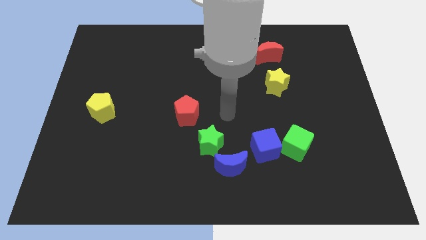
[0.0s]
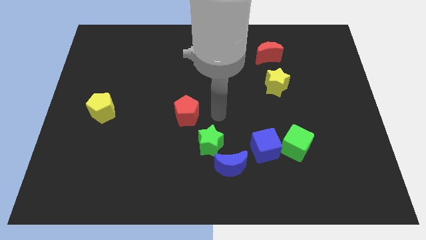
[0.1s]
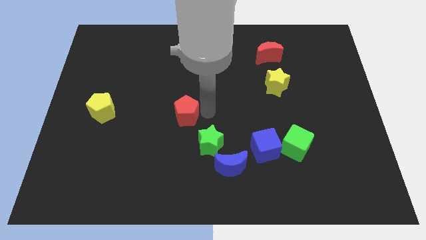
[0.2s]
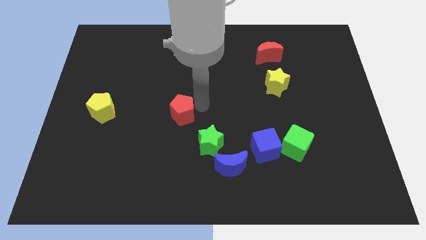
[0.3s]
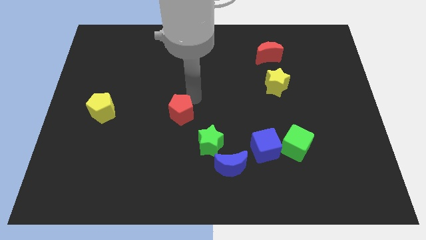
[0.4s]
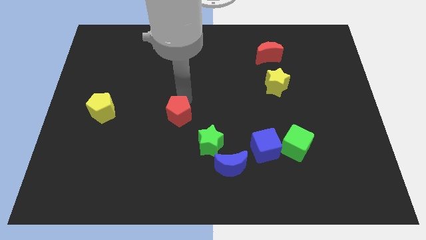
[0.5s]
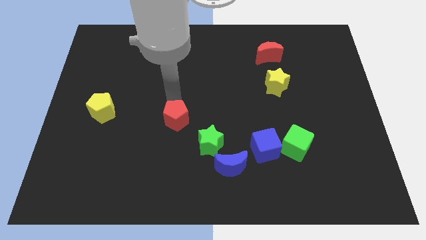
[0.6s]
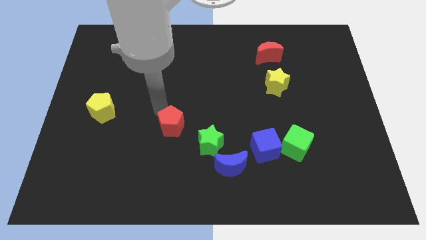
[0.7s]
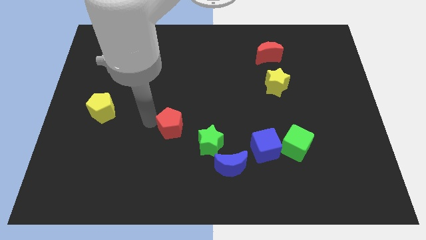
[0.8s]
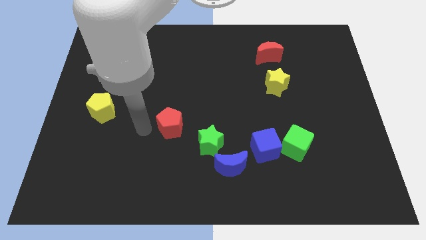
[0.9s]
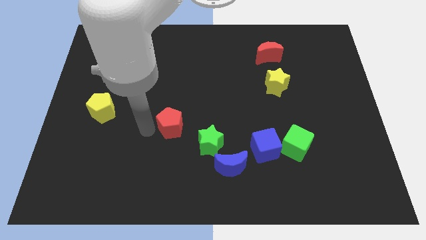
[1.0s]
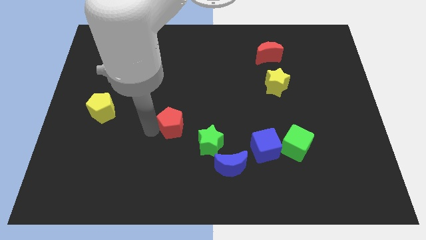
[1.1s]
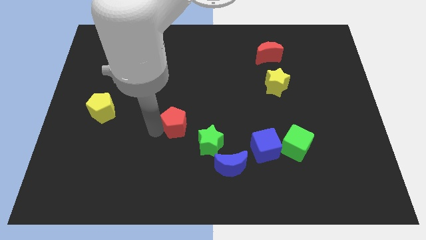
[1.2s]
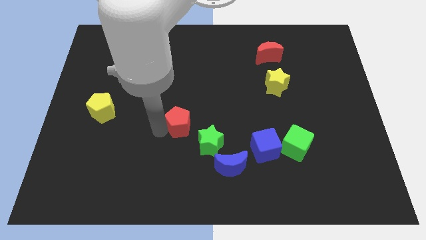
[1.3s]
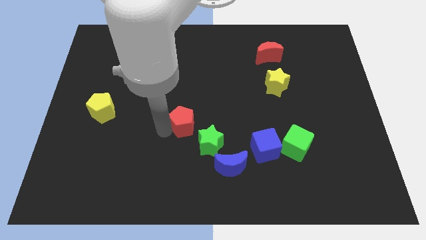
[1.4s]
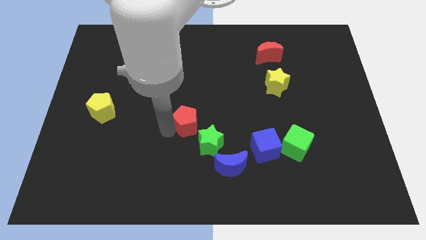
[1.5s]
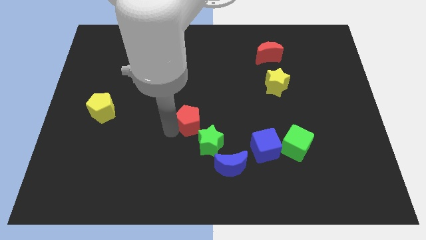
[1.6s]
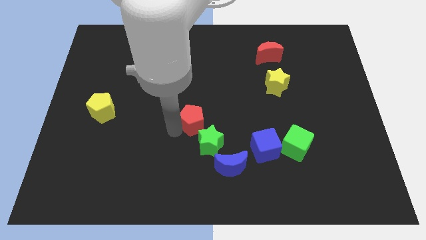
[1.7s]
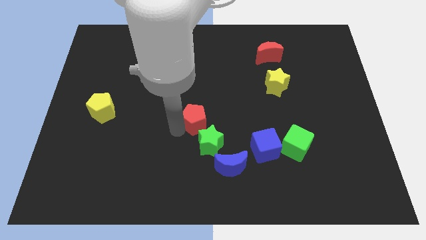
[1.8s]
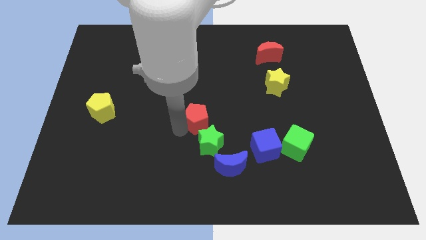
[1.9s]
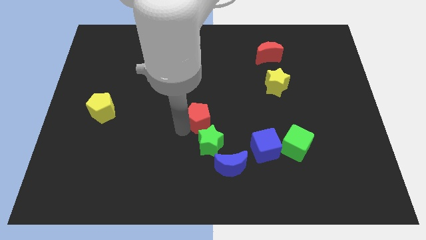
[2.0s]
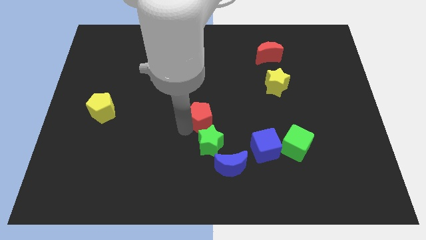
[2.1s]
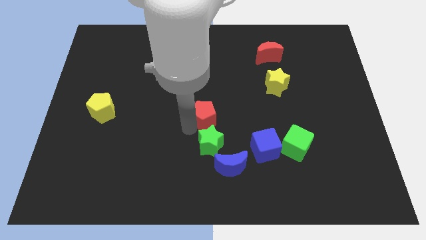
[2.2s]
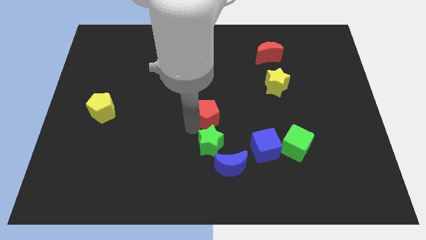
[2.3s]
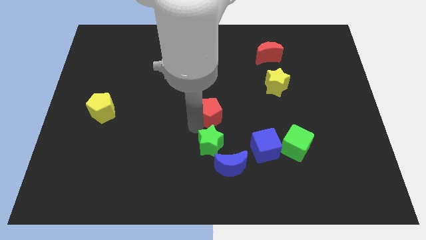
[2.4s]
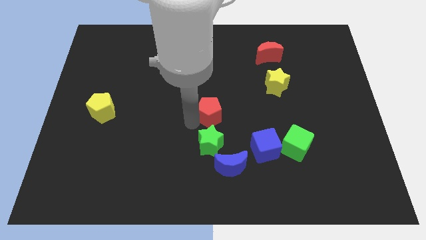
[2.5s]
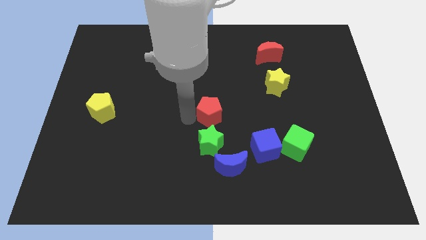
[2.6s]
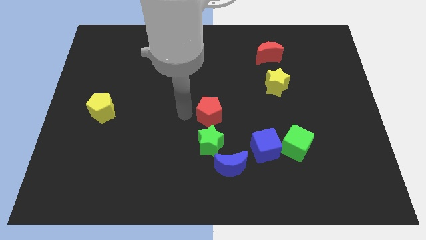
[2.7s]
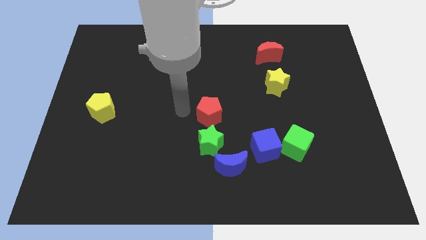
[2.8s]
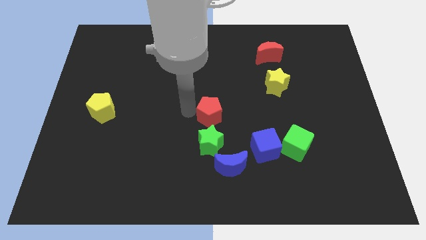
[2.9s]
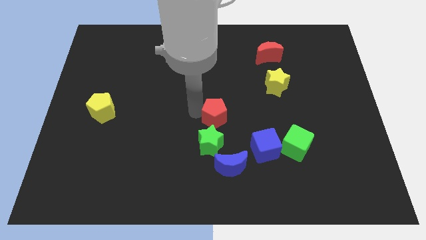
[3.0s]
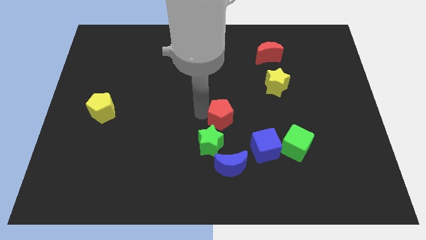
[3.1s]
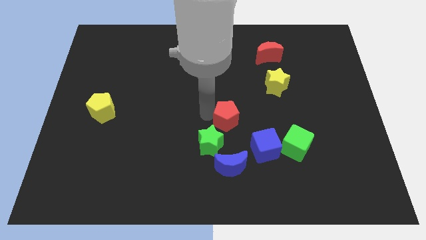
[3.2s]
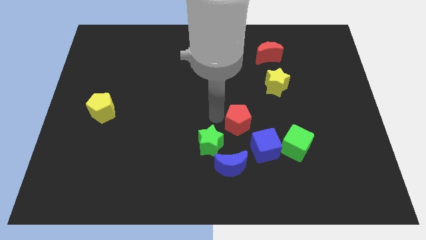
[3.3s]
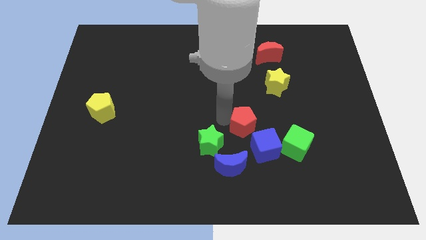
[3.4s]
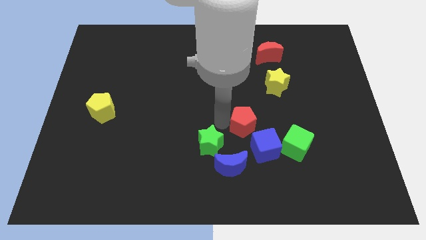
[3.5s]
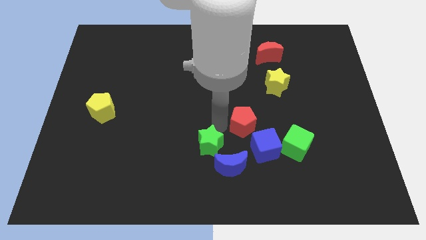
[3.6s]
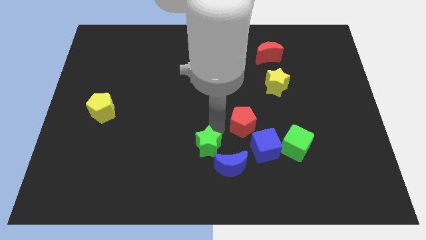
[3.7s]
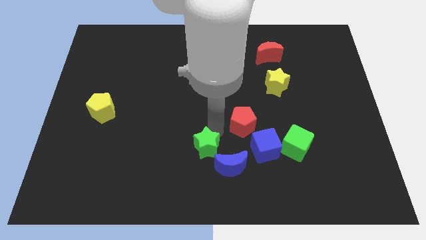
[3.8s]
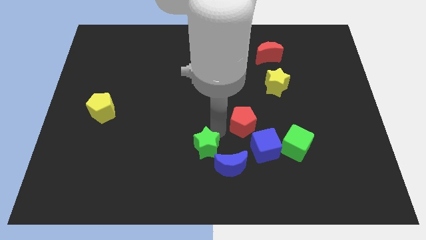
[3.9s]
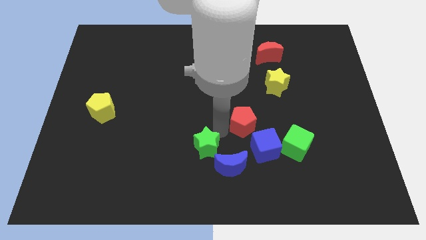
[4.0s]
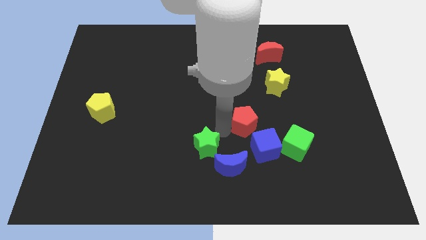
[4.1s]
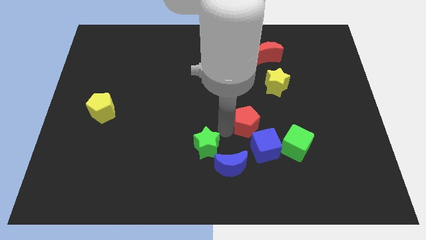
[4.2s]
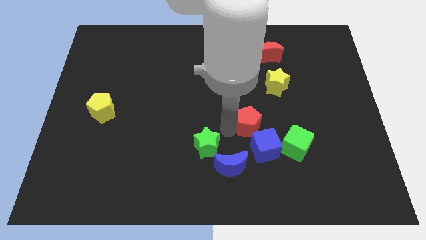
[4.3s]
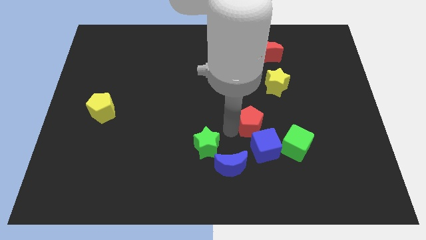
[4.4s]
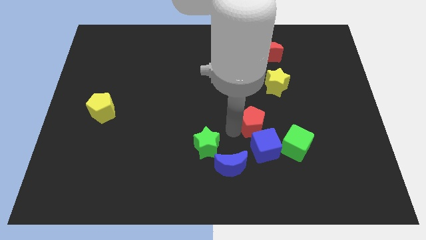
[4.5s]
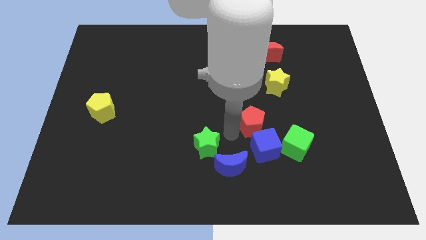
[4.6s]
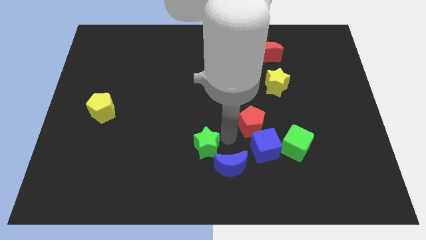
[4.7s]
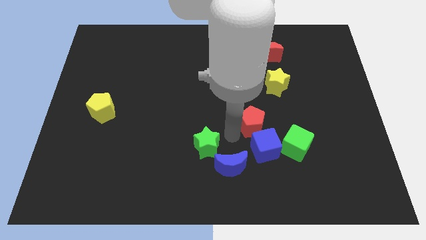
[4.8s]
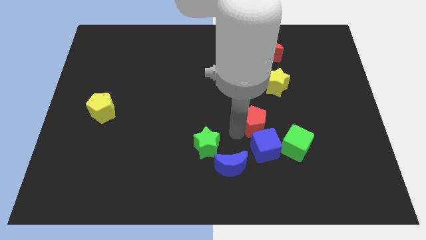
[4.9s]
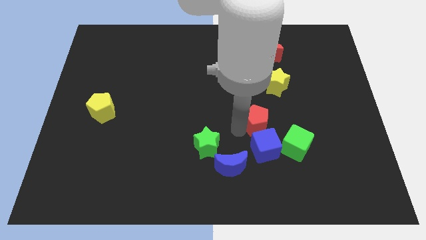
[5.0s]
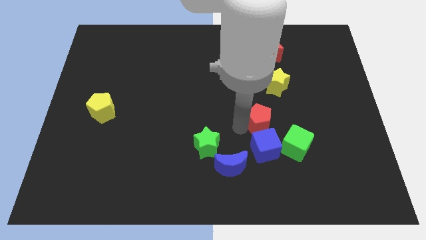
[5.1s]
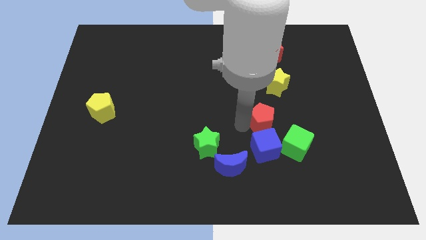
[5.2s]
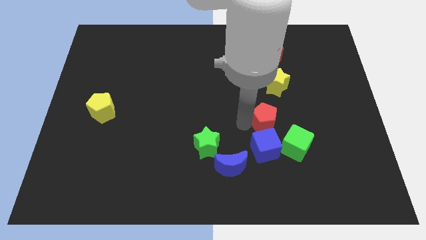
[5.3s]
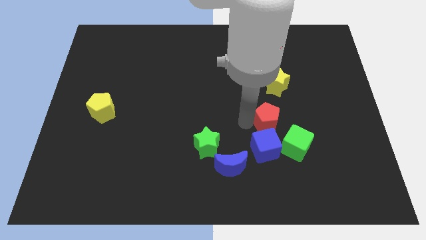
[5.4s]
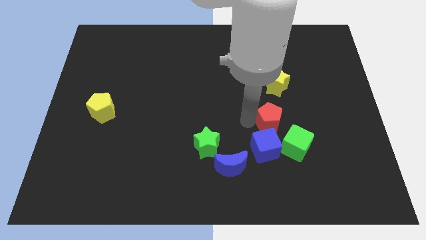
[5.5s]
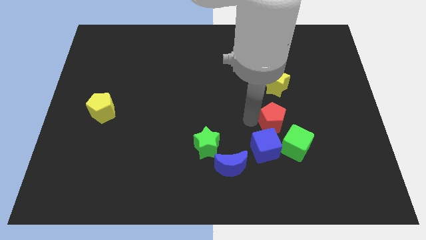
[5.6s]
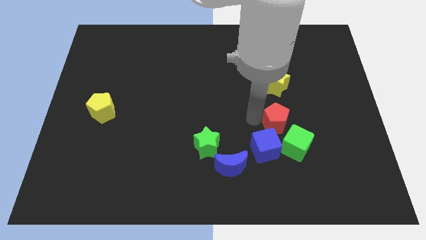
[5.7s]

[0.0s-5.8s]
move the red pentagon right

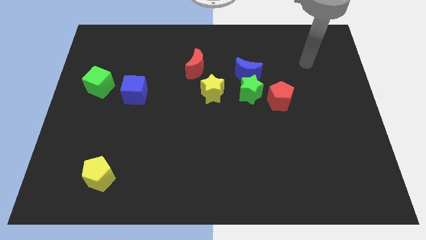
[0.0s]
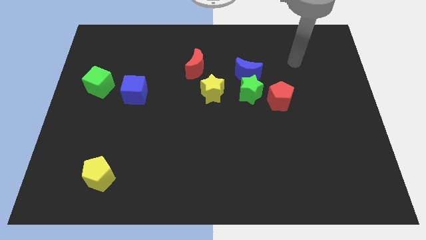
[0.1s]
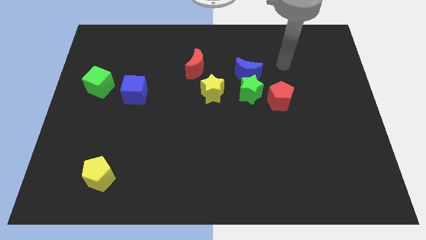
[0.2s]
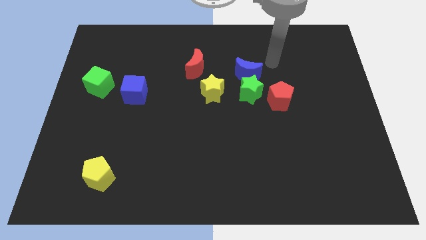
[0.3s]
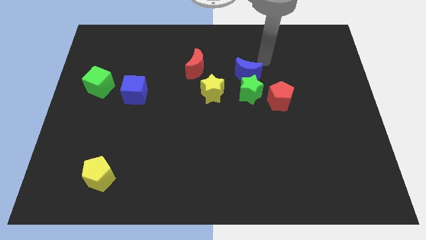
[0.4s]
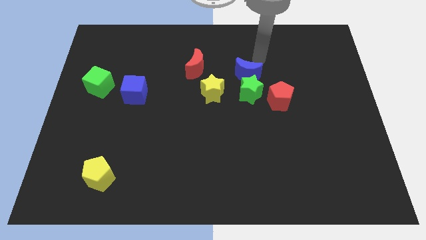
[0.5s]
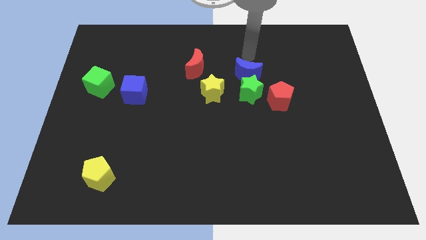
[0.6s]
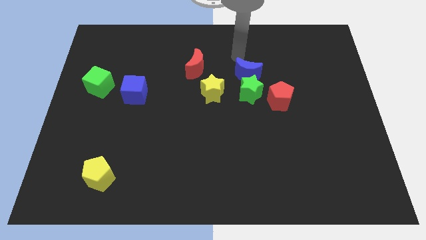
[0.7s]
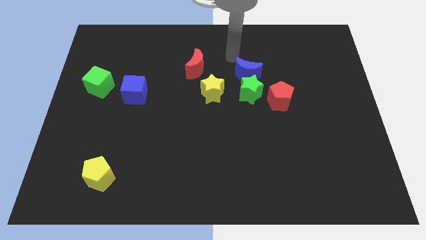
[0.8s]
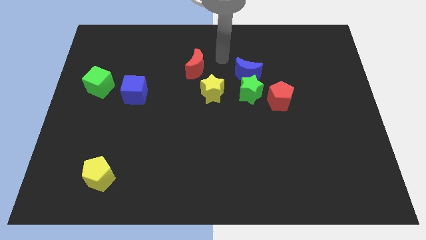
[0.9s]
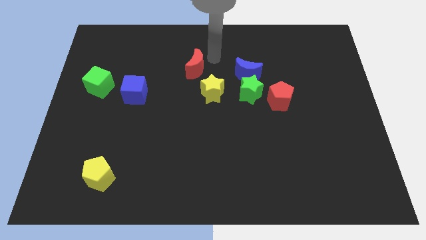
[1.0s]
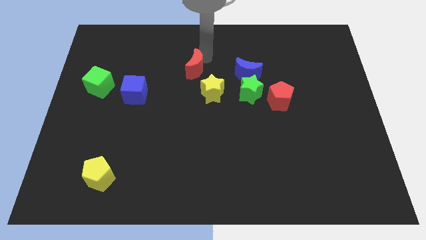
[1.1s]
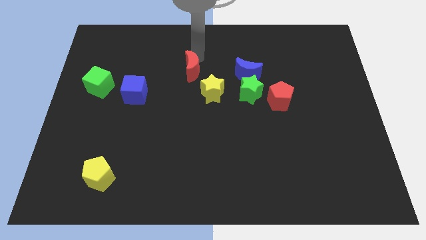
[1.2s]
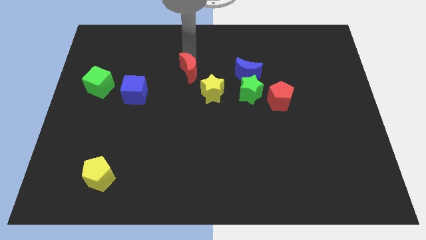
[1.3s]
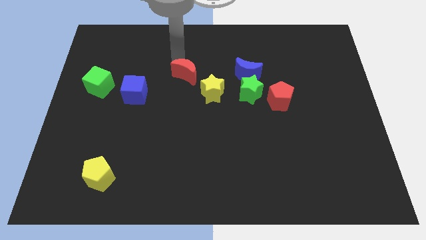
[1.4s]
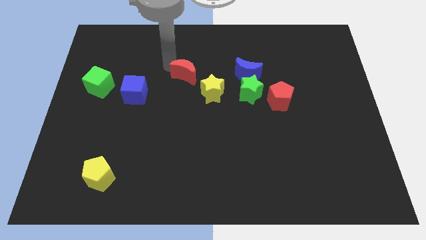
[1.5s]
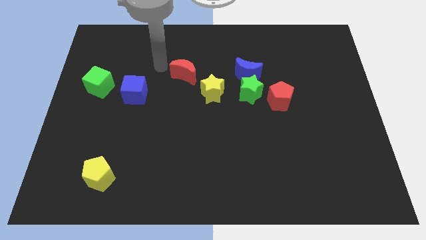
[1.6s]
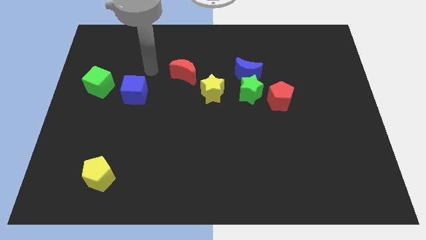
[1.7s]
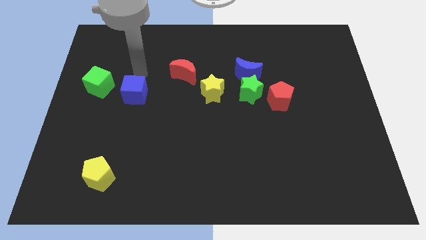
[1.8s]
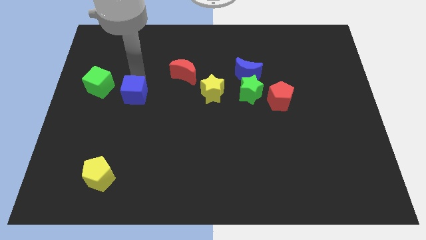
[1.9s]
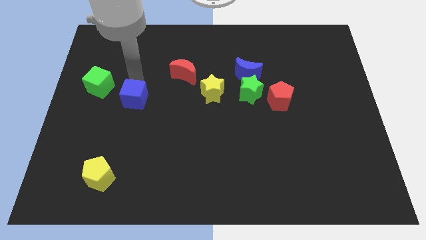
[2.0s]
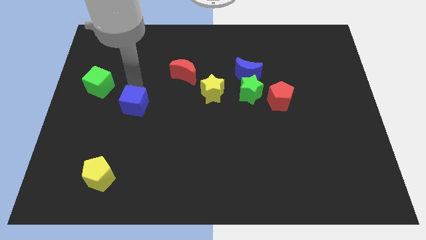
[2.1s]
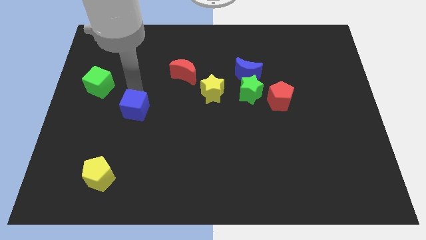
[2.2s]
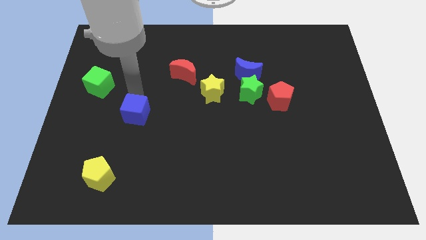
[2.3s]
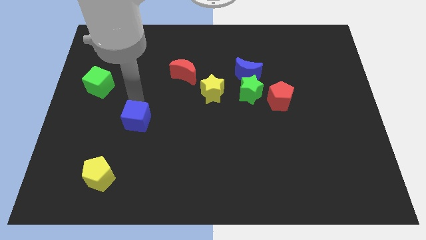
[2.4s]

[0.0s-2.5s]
push the blue cube somewhat down

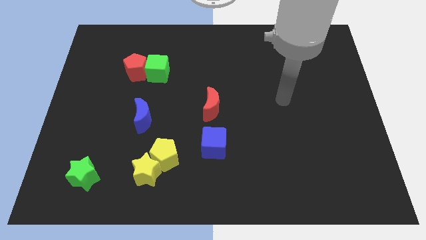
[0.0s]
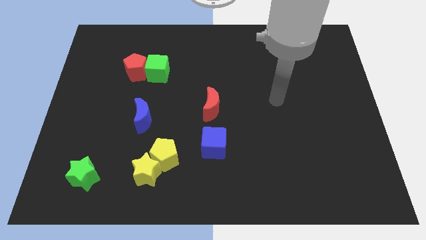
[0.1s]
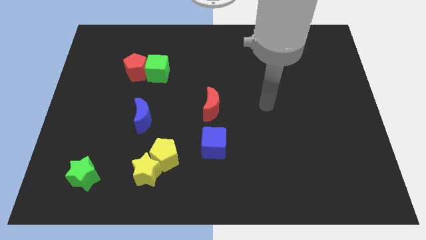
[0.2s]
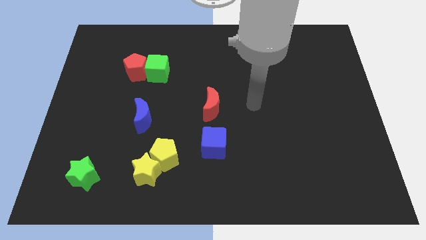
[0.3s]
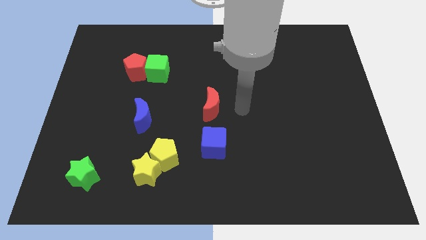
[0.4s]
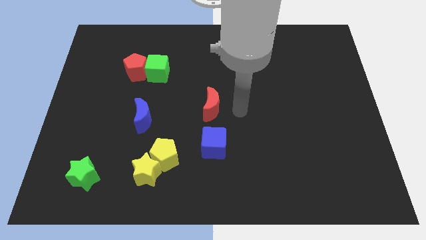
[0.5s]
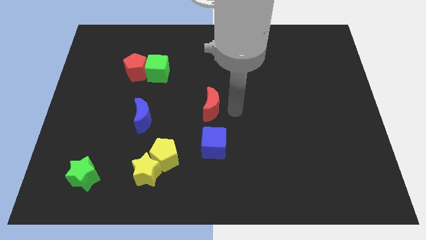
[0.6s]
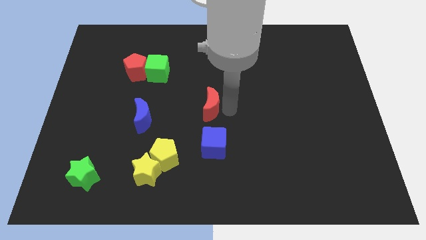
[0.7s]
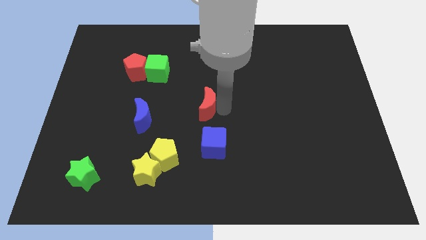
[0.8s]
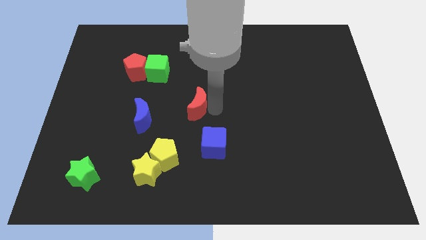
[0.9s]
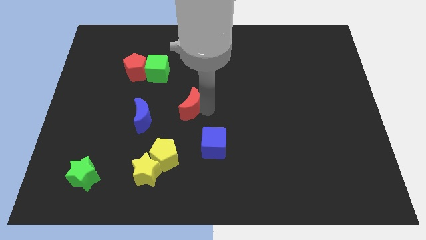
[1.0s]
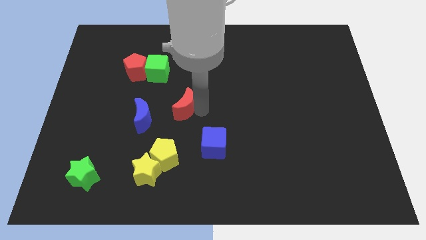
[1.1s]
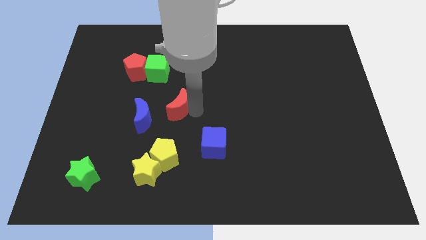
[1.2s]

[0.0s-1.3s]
slightly push the red moon to the left
